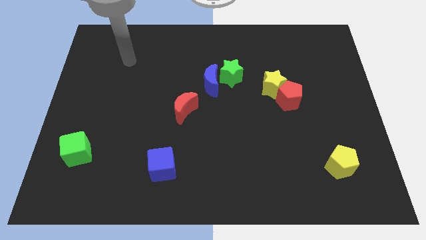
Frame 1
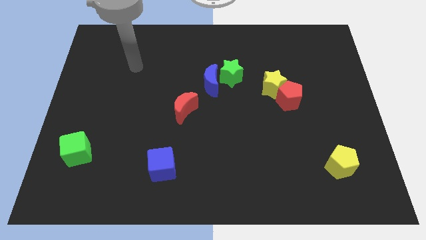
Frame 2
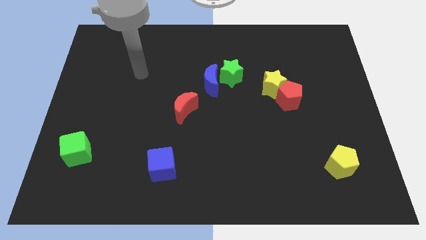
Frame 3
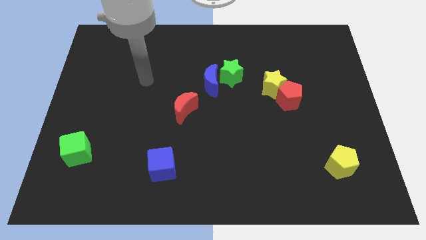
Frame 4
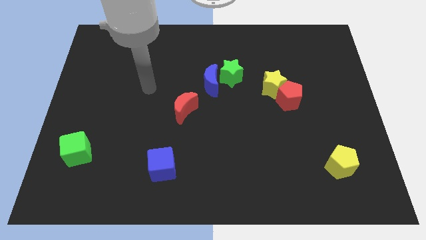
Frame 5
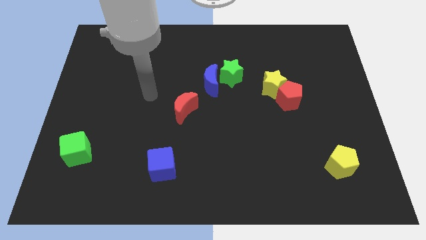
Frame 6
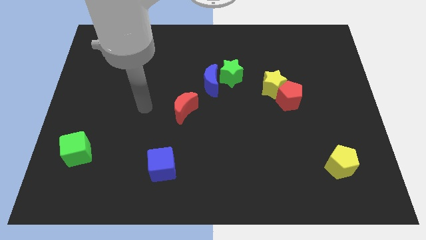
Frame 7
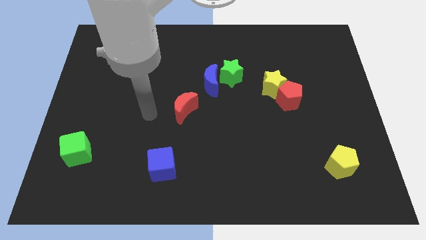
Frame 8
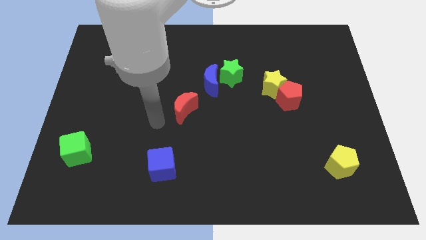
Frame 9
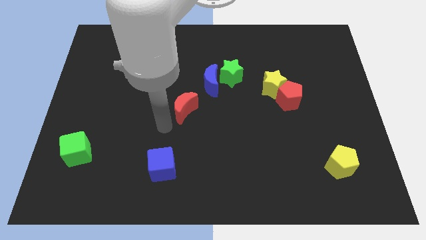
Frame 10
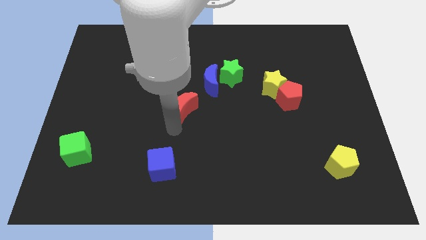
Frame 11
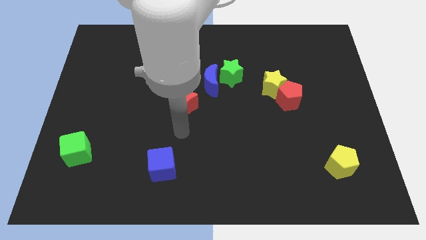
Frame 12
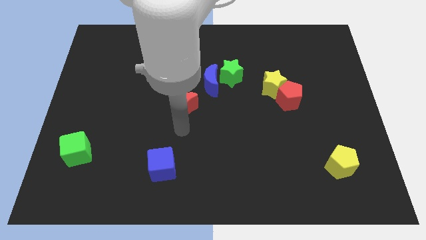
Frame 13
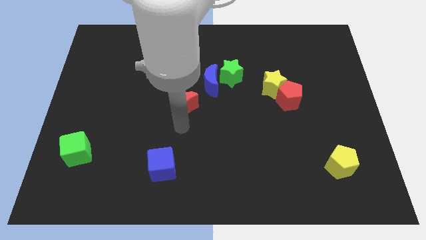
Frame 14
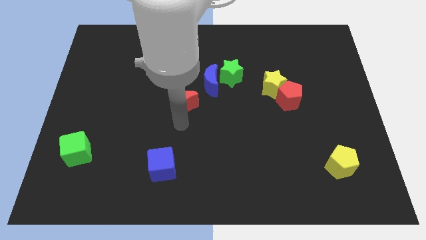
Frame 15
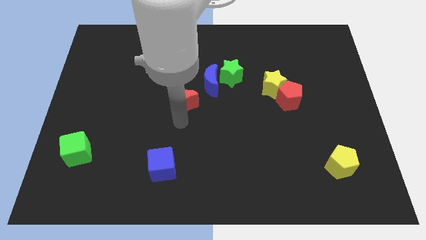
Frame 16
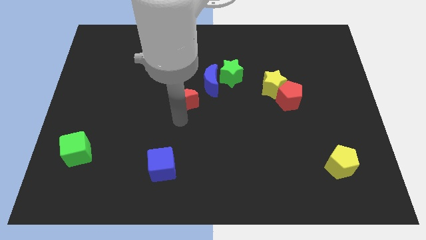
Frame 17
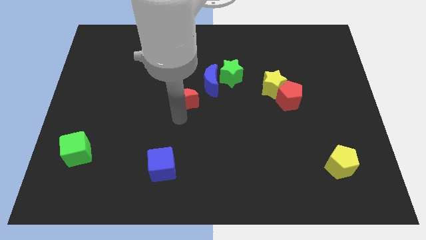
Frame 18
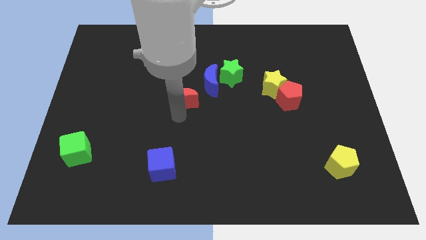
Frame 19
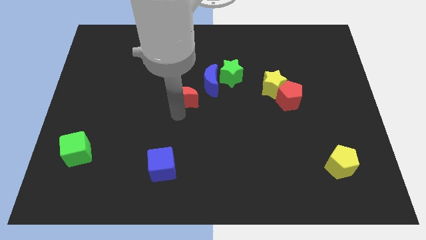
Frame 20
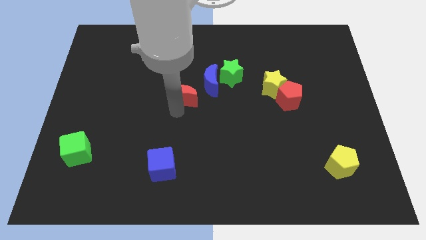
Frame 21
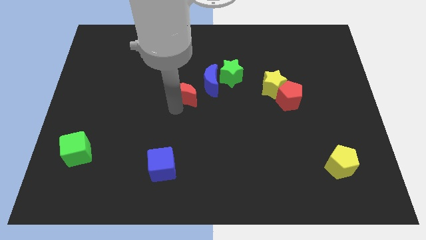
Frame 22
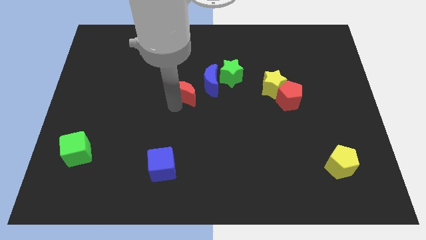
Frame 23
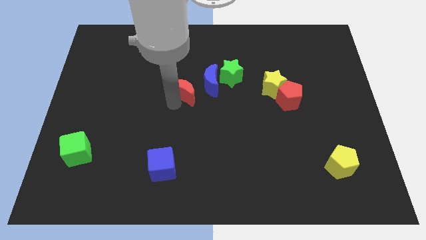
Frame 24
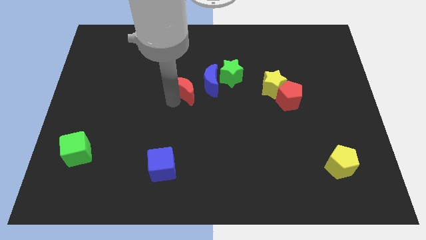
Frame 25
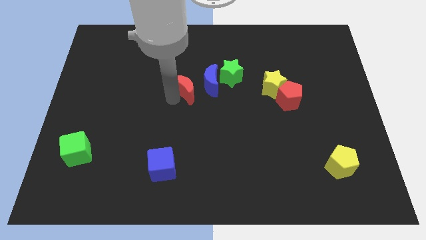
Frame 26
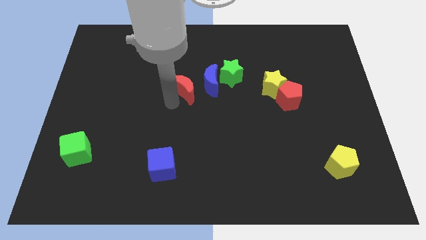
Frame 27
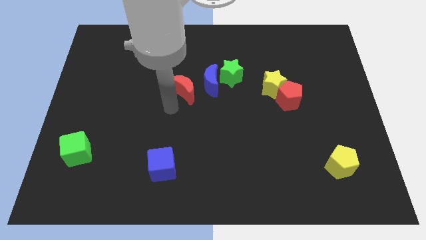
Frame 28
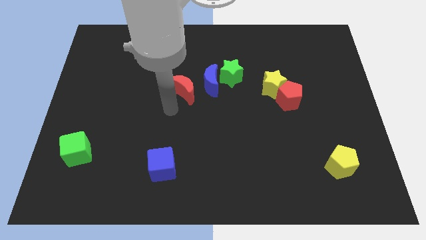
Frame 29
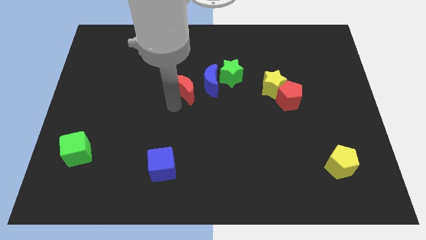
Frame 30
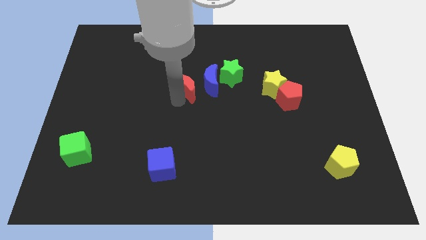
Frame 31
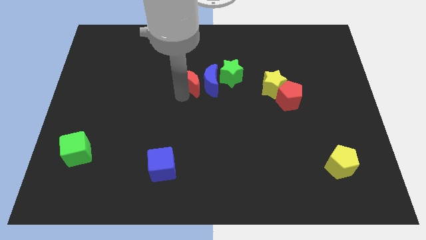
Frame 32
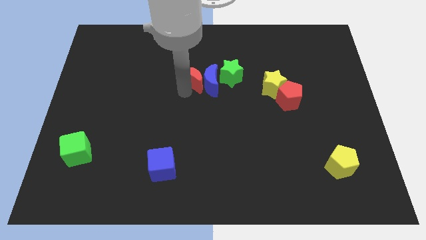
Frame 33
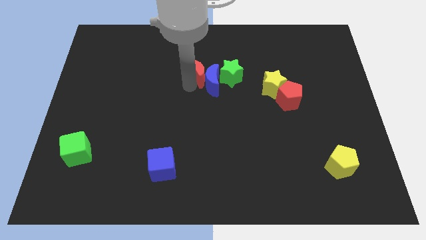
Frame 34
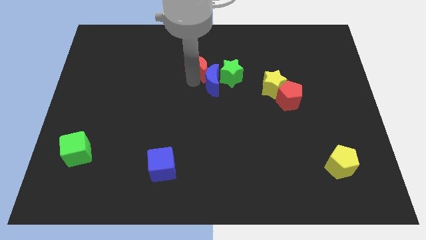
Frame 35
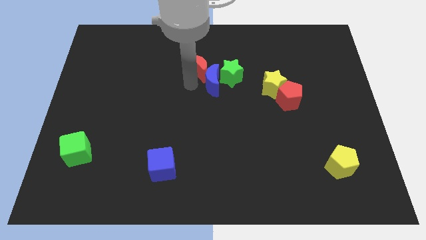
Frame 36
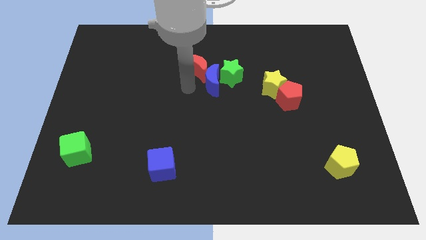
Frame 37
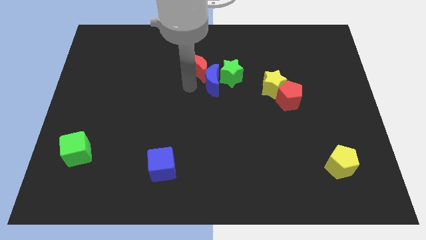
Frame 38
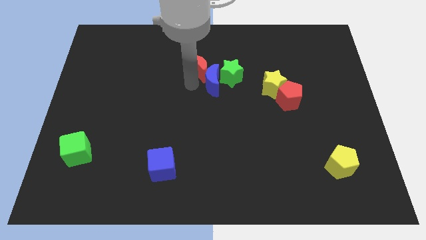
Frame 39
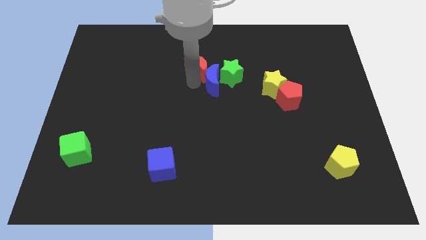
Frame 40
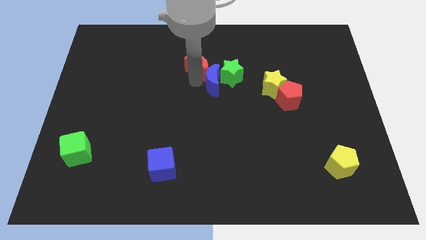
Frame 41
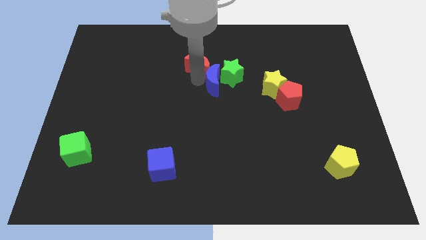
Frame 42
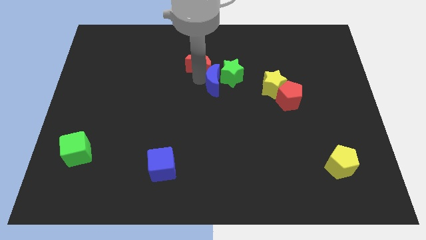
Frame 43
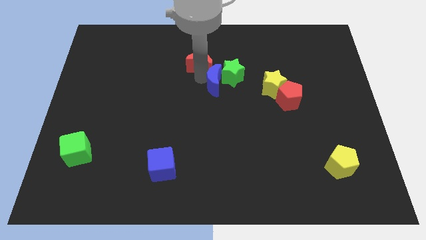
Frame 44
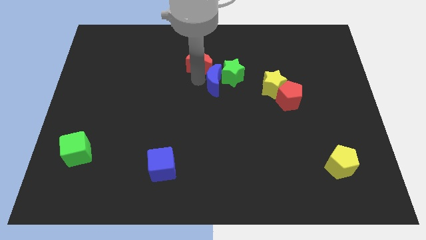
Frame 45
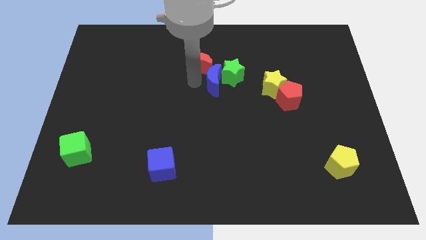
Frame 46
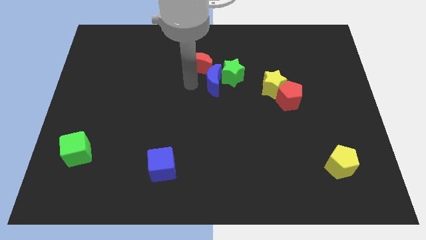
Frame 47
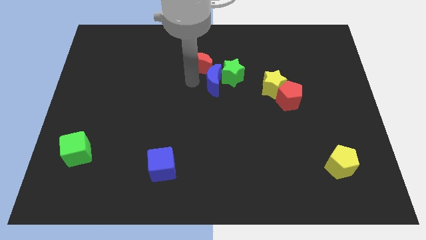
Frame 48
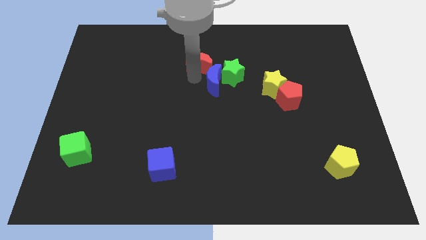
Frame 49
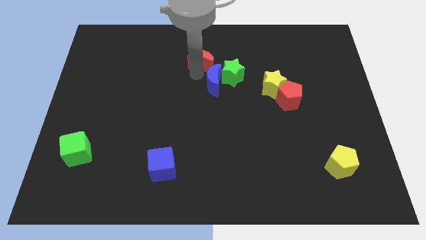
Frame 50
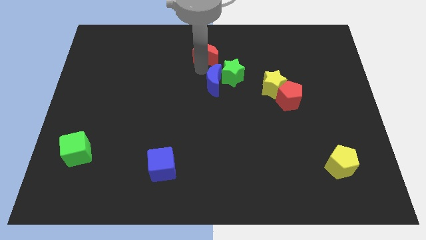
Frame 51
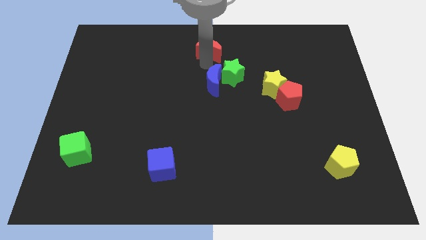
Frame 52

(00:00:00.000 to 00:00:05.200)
move the red moon to the towards your base
